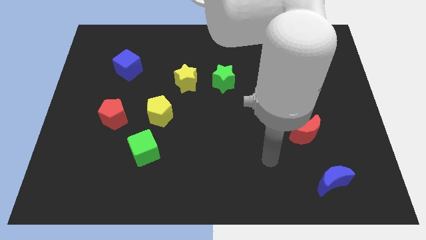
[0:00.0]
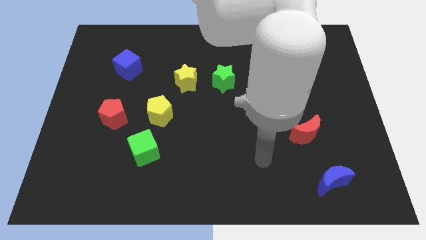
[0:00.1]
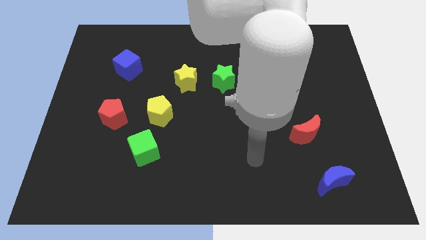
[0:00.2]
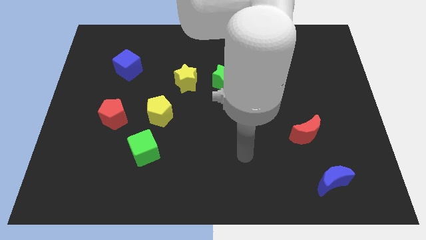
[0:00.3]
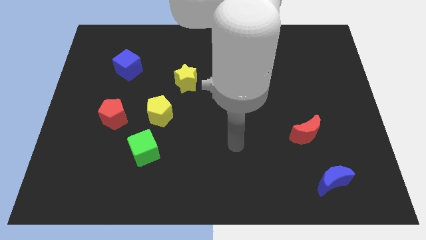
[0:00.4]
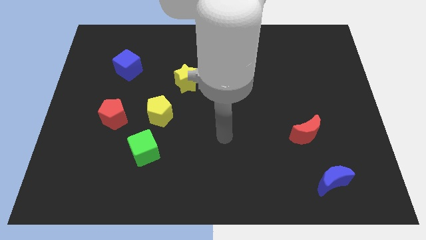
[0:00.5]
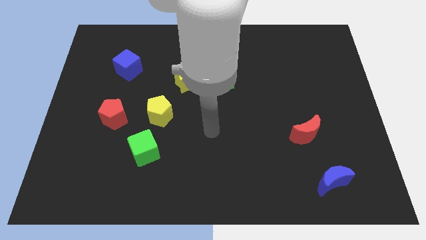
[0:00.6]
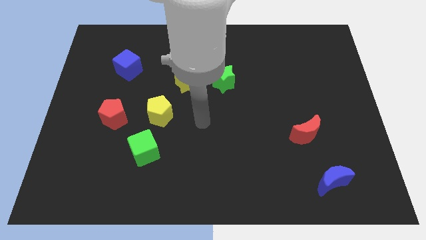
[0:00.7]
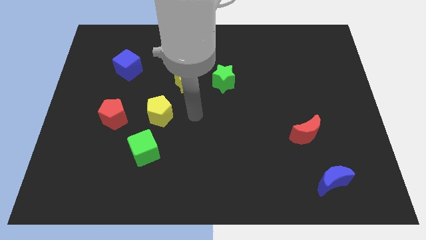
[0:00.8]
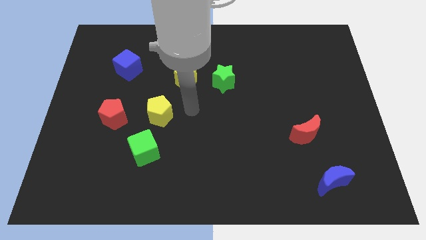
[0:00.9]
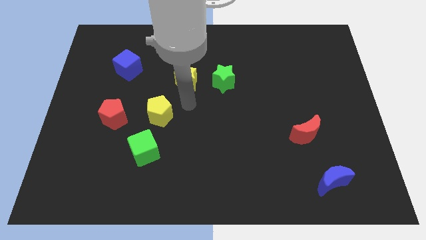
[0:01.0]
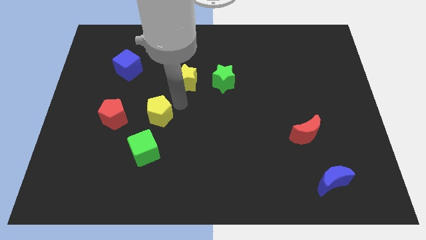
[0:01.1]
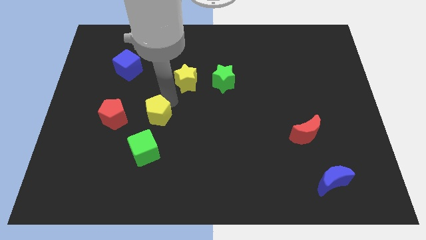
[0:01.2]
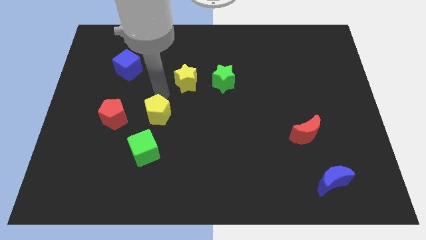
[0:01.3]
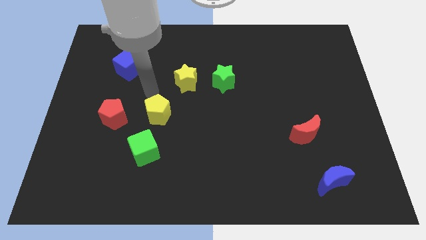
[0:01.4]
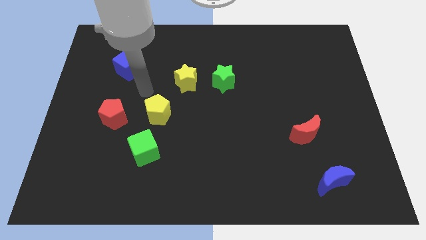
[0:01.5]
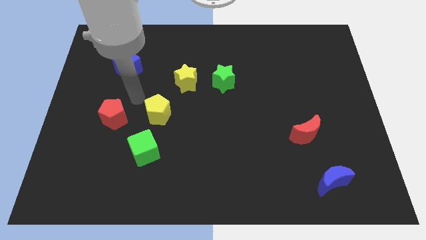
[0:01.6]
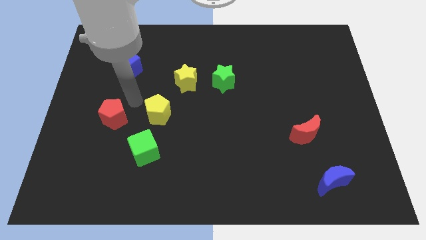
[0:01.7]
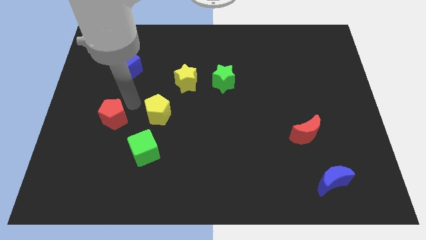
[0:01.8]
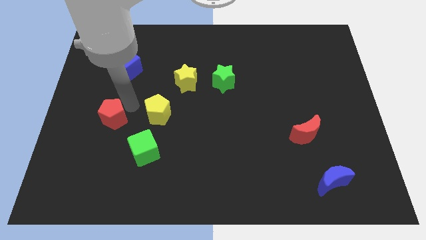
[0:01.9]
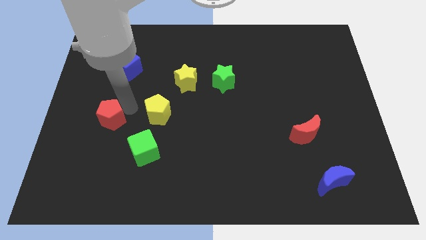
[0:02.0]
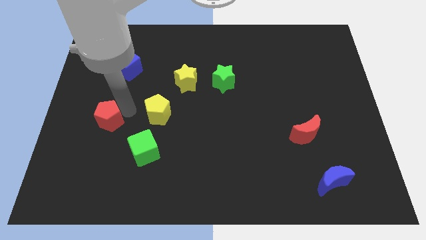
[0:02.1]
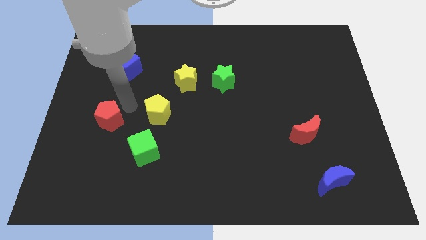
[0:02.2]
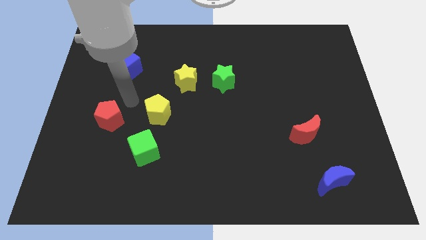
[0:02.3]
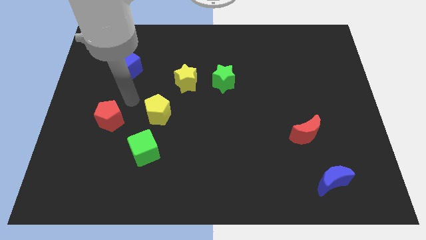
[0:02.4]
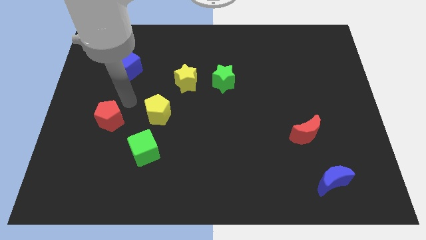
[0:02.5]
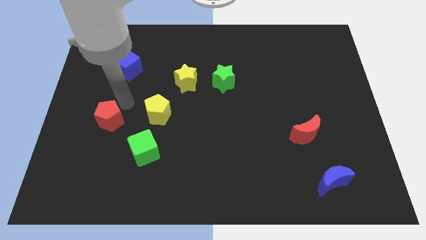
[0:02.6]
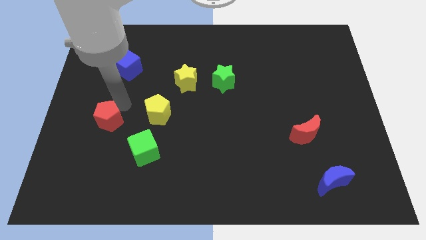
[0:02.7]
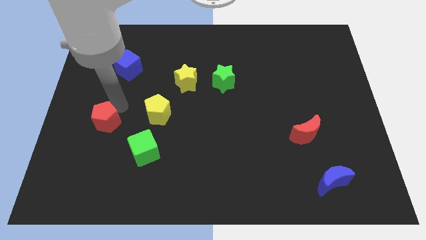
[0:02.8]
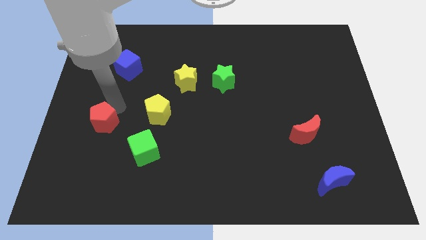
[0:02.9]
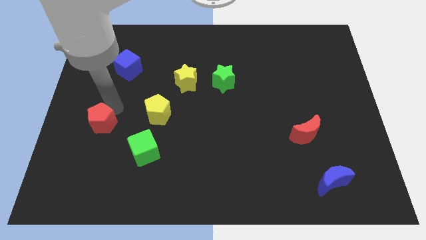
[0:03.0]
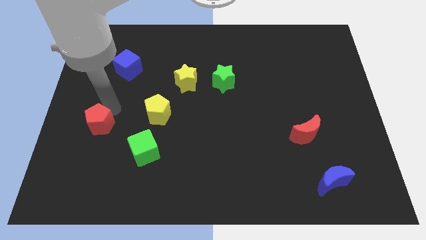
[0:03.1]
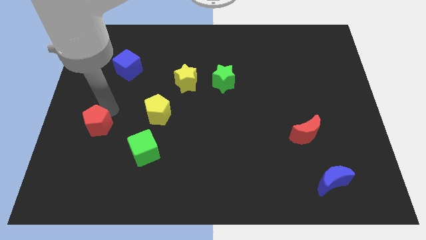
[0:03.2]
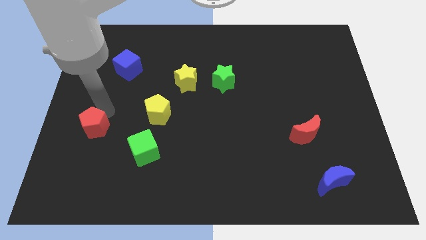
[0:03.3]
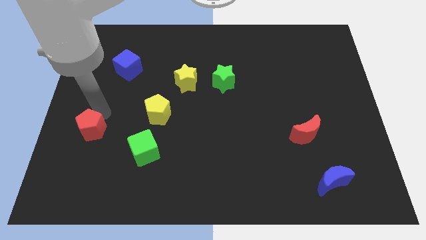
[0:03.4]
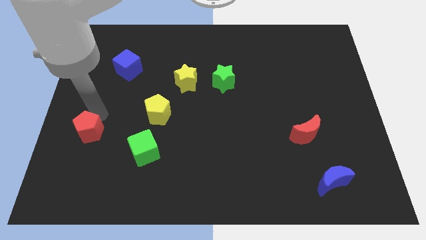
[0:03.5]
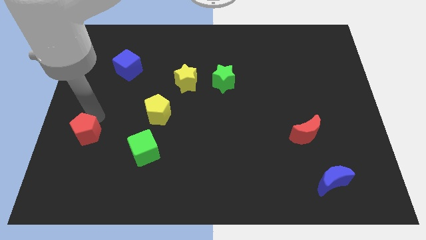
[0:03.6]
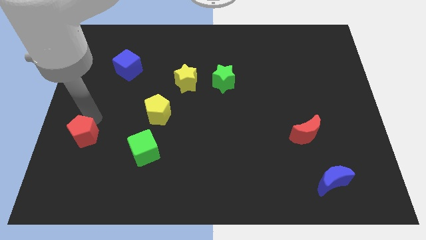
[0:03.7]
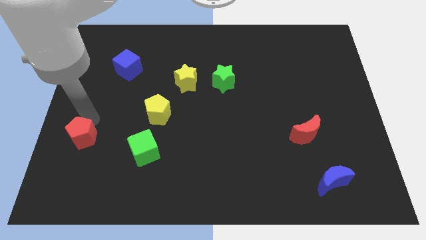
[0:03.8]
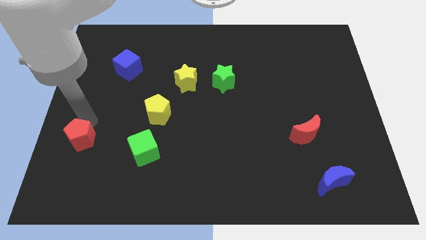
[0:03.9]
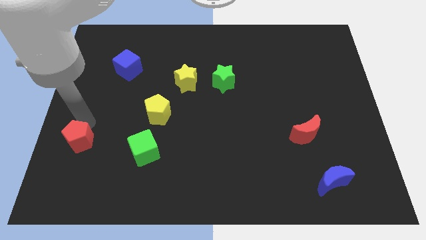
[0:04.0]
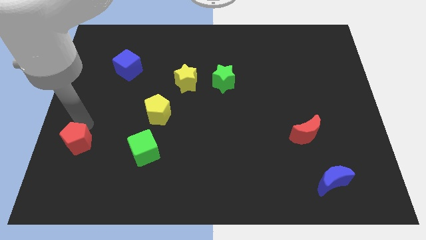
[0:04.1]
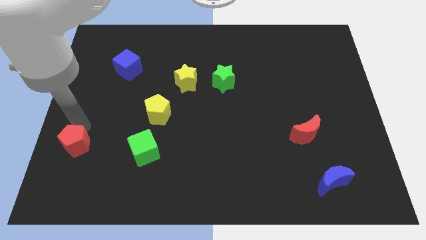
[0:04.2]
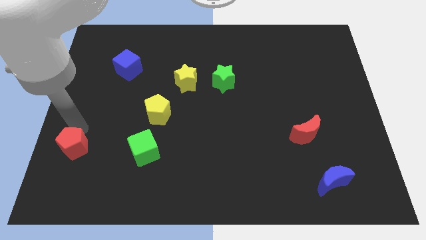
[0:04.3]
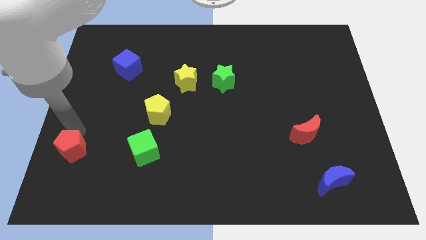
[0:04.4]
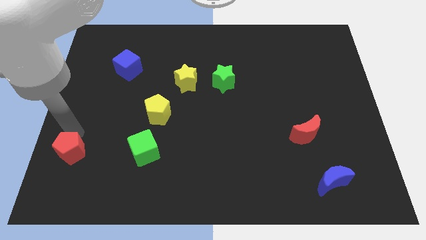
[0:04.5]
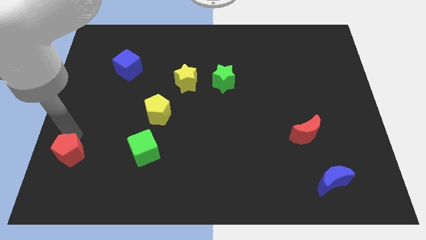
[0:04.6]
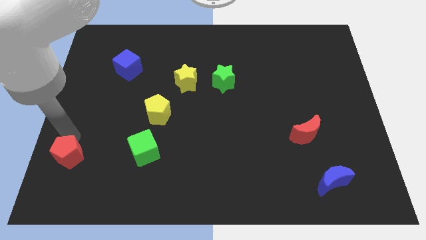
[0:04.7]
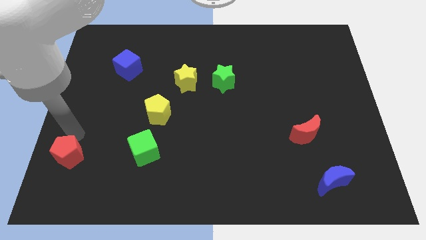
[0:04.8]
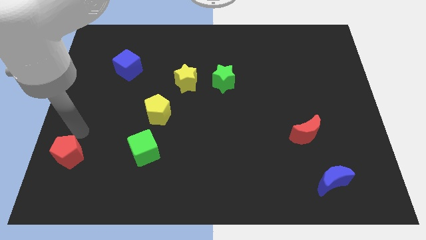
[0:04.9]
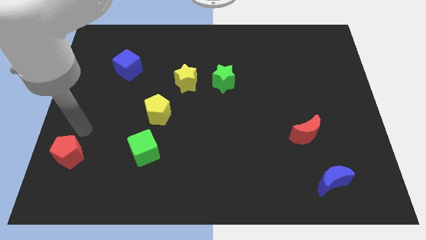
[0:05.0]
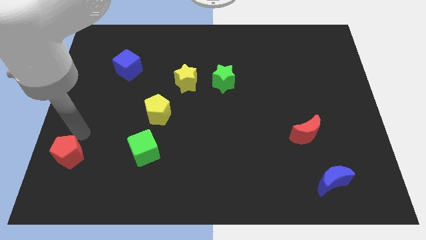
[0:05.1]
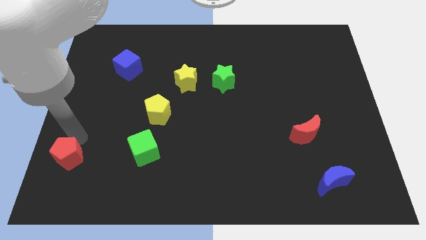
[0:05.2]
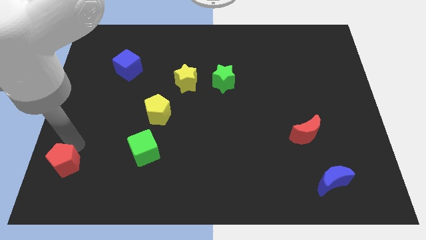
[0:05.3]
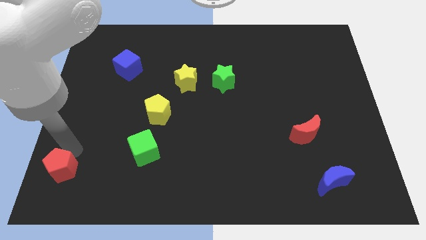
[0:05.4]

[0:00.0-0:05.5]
slide the red pentagon to the bottom left of the board

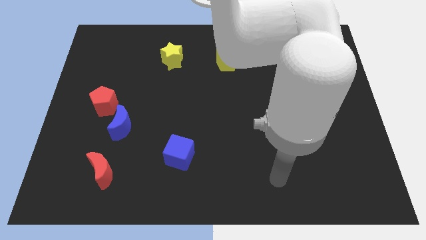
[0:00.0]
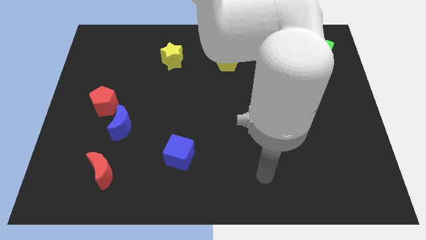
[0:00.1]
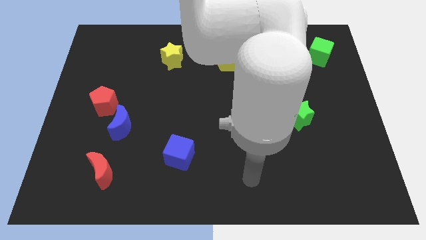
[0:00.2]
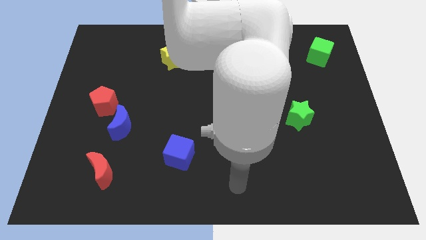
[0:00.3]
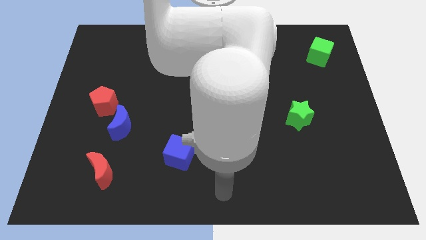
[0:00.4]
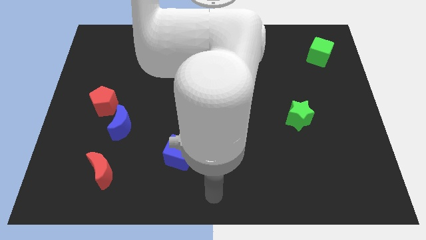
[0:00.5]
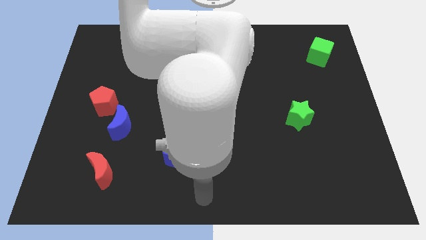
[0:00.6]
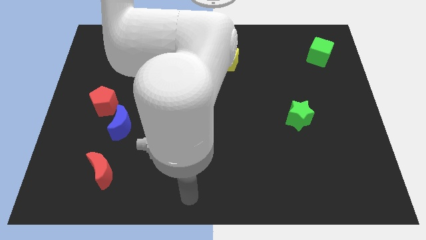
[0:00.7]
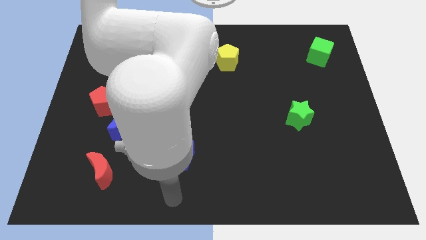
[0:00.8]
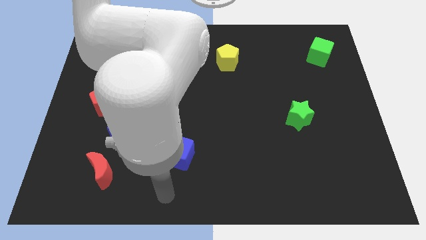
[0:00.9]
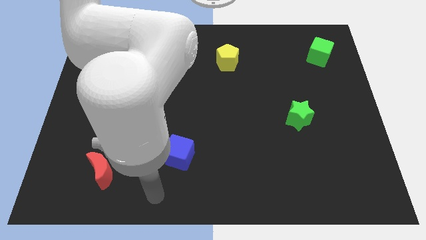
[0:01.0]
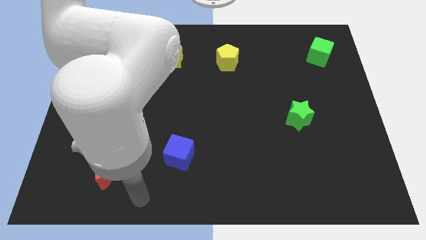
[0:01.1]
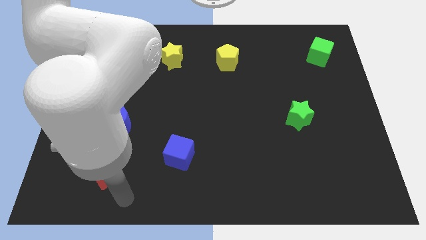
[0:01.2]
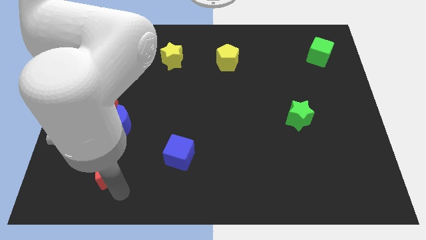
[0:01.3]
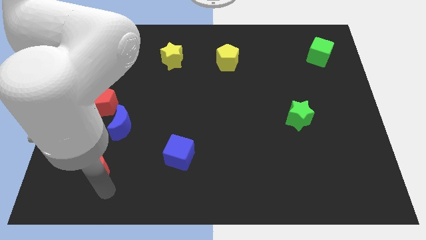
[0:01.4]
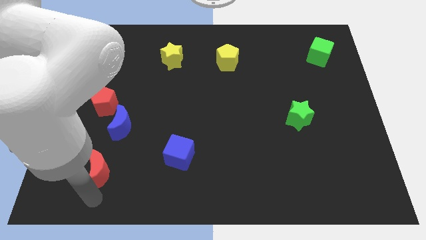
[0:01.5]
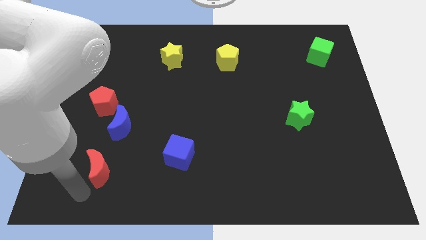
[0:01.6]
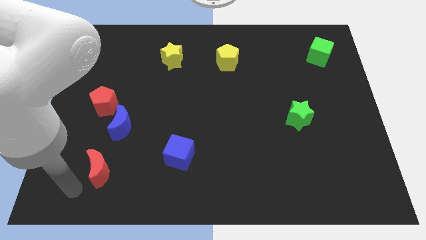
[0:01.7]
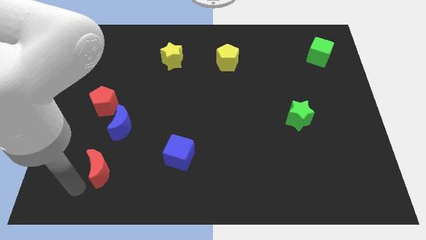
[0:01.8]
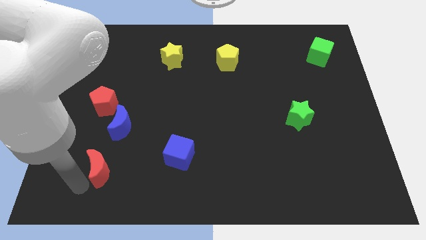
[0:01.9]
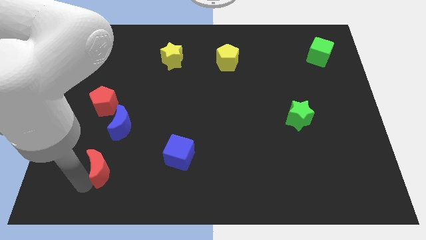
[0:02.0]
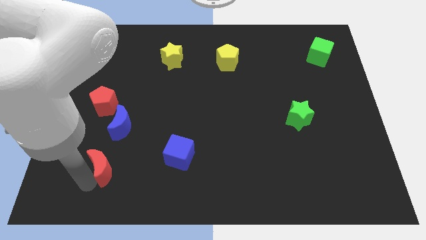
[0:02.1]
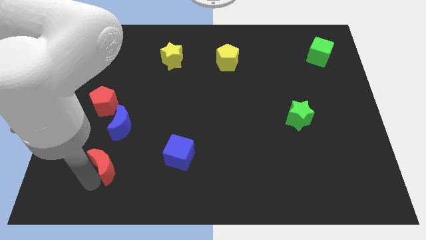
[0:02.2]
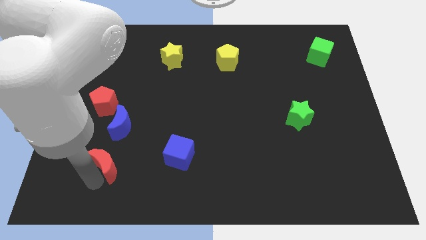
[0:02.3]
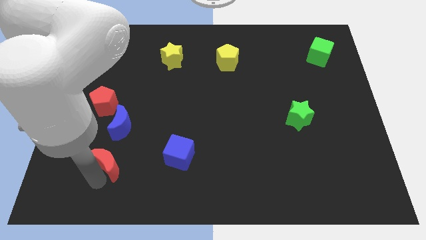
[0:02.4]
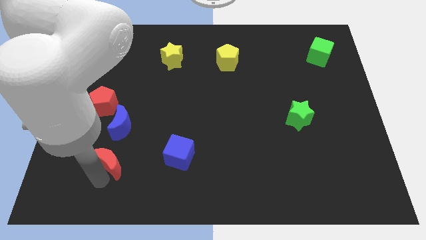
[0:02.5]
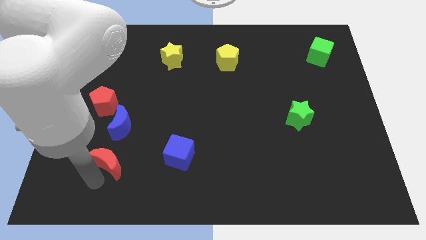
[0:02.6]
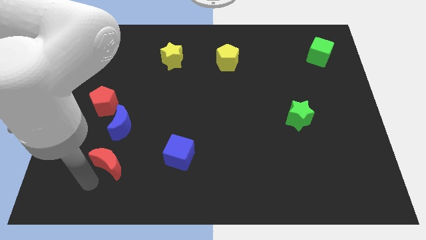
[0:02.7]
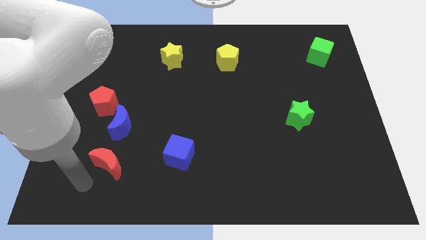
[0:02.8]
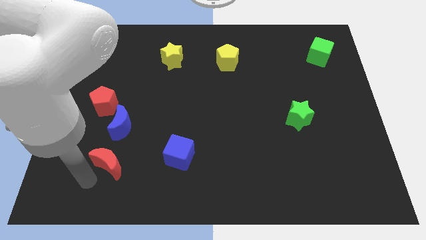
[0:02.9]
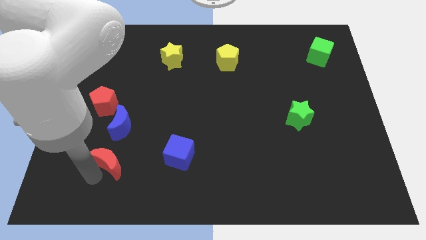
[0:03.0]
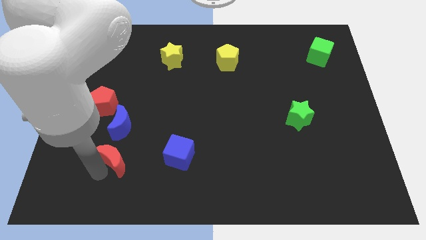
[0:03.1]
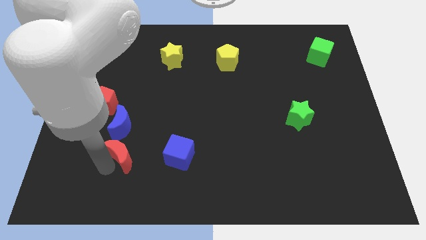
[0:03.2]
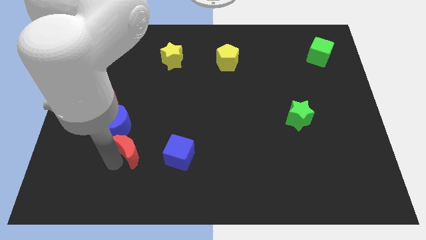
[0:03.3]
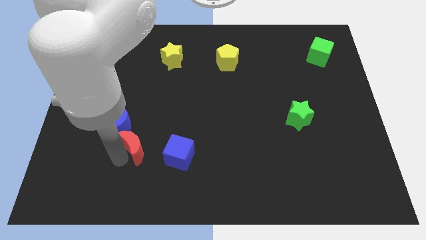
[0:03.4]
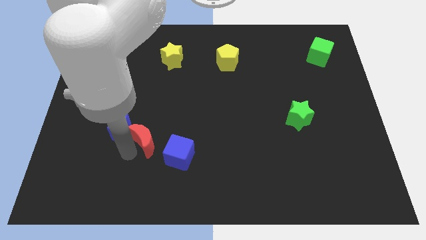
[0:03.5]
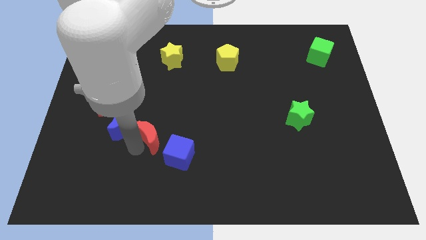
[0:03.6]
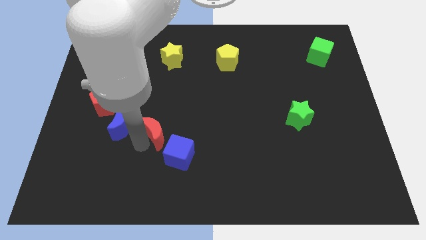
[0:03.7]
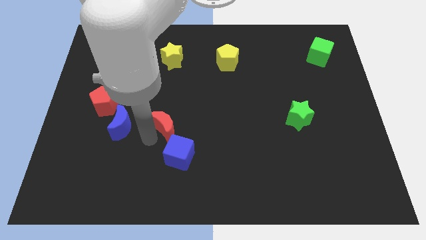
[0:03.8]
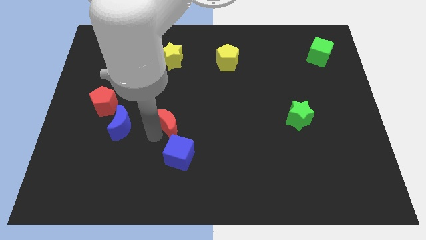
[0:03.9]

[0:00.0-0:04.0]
move the red moon to the middle of the board
